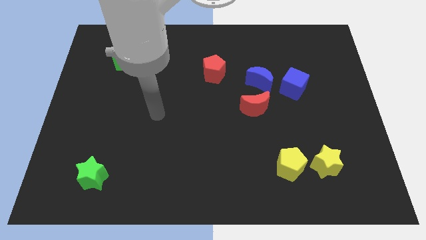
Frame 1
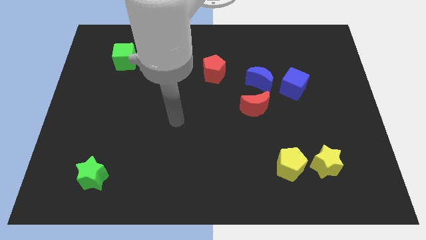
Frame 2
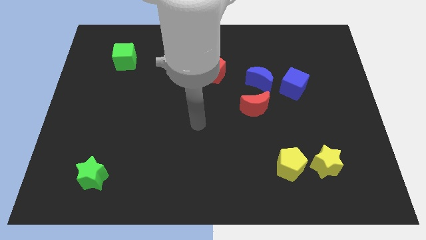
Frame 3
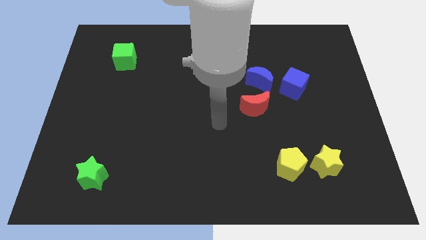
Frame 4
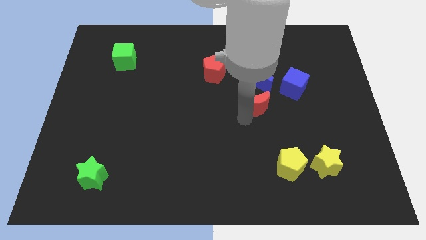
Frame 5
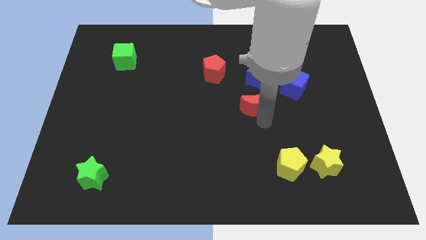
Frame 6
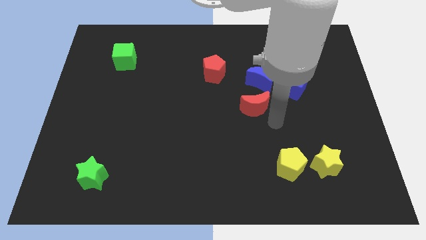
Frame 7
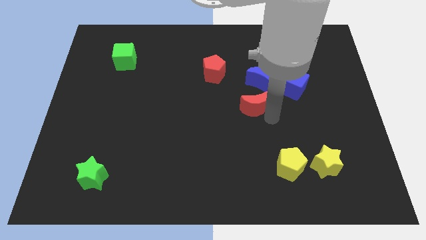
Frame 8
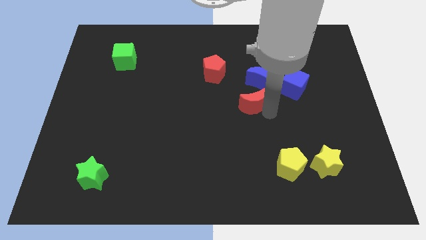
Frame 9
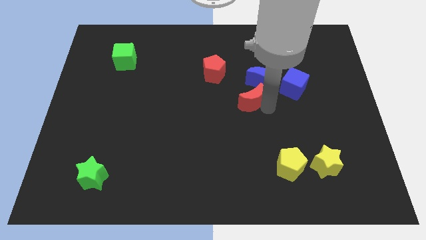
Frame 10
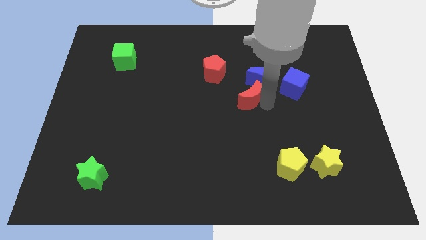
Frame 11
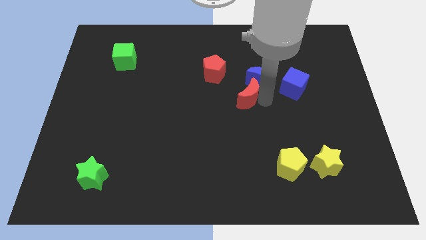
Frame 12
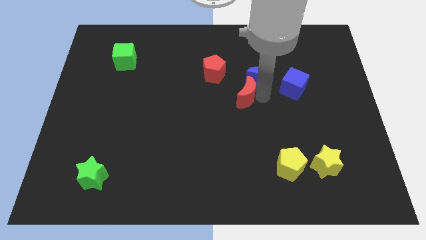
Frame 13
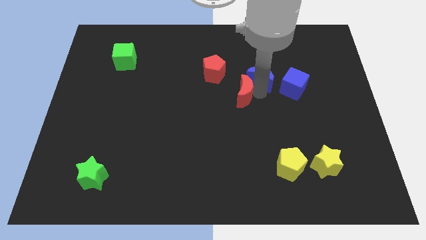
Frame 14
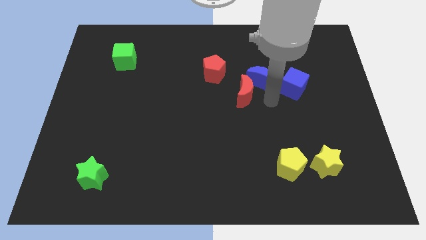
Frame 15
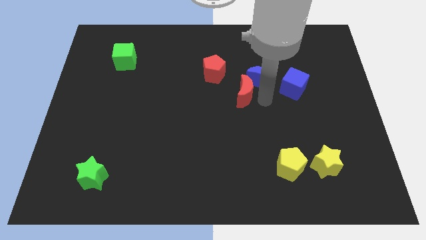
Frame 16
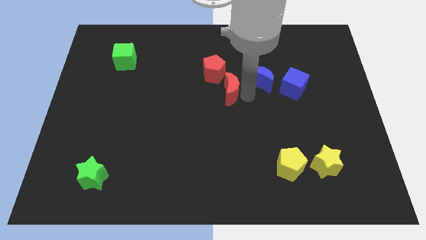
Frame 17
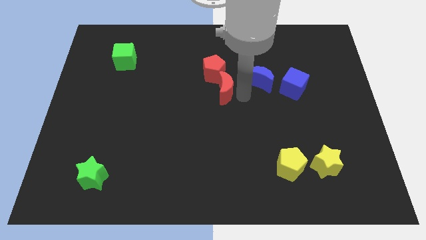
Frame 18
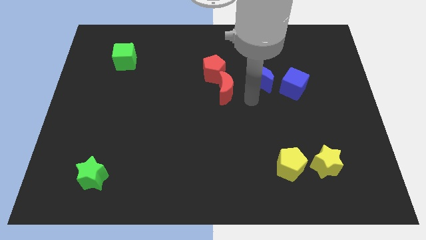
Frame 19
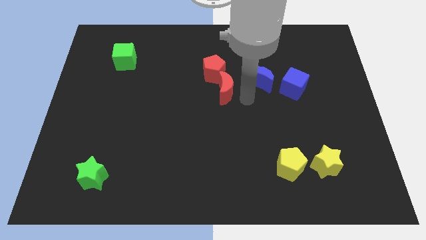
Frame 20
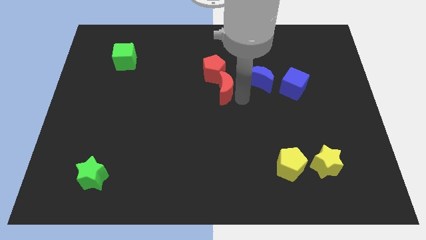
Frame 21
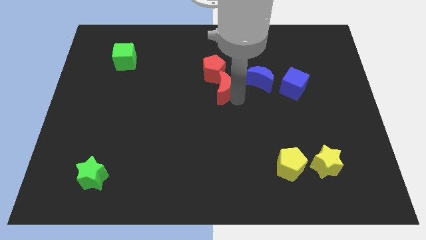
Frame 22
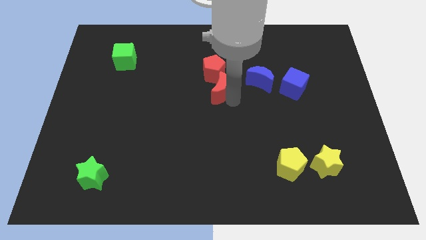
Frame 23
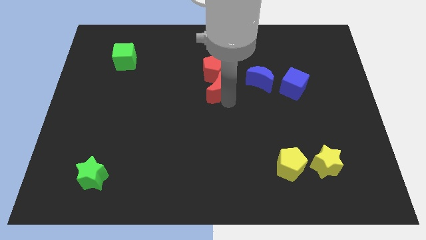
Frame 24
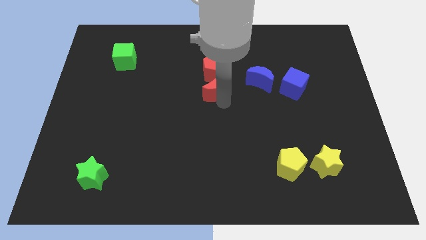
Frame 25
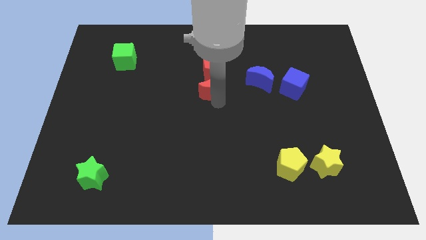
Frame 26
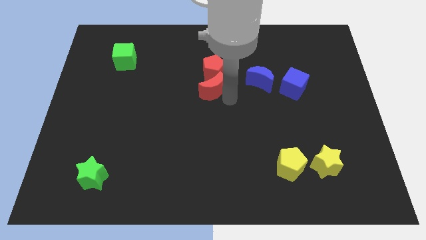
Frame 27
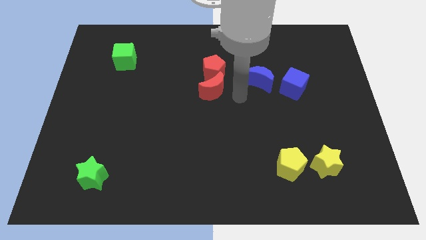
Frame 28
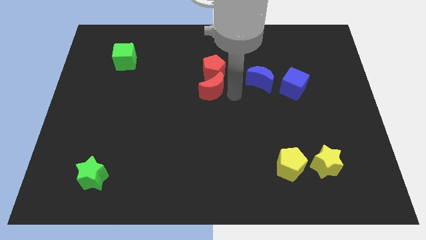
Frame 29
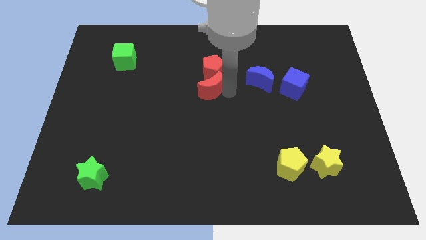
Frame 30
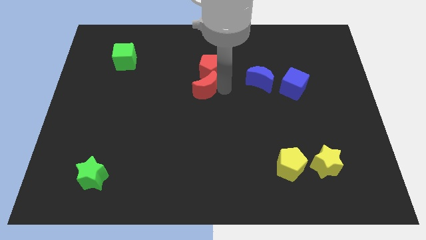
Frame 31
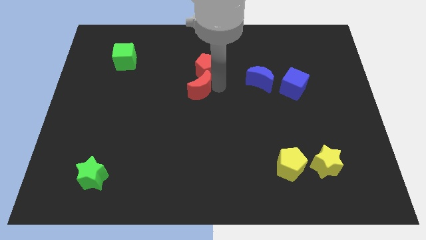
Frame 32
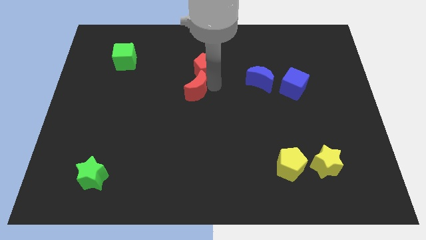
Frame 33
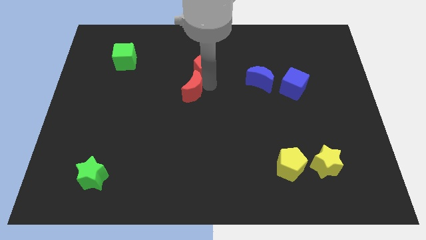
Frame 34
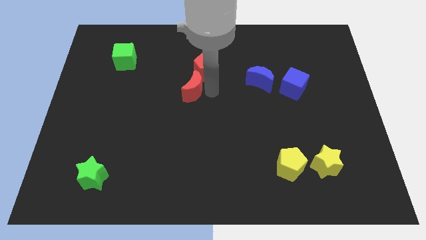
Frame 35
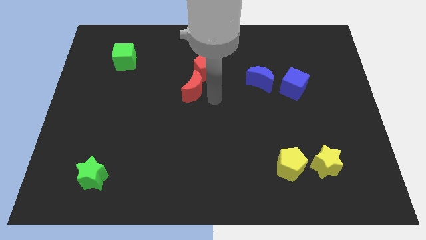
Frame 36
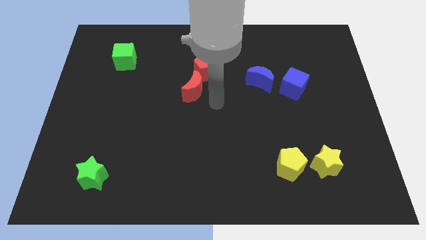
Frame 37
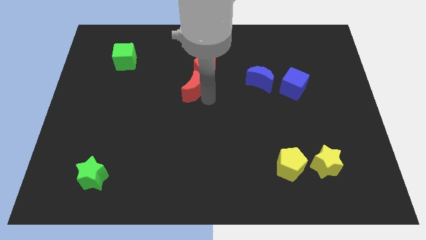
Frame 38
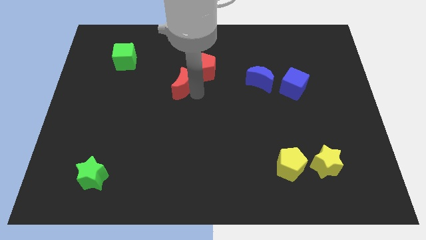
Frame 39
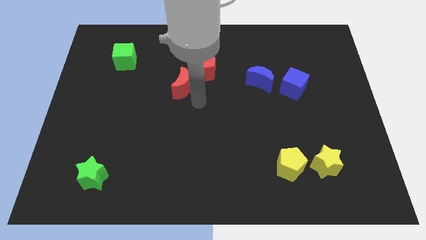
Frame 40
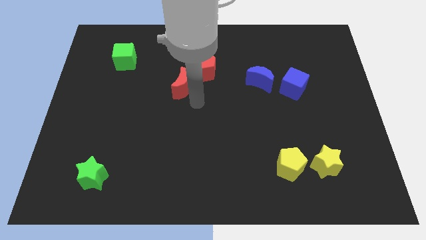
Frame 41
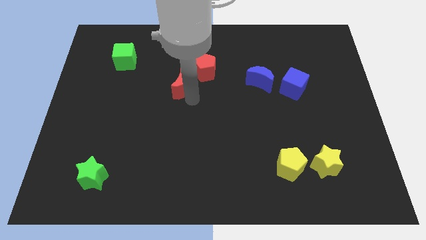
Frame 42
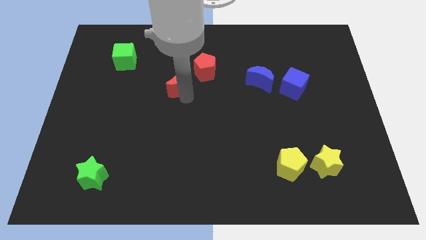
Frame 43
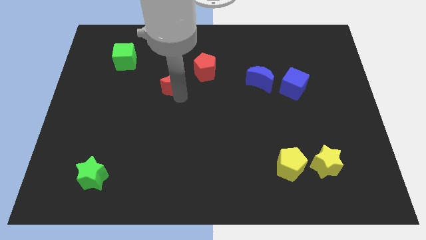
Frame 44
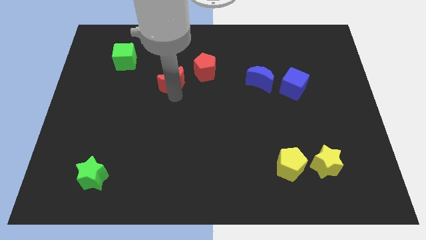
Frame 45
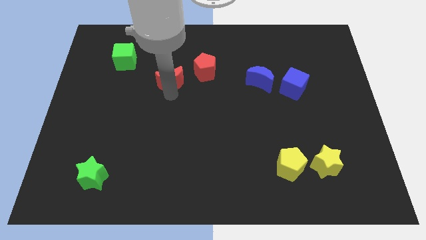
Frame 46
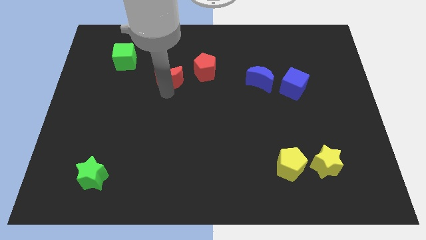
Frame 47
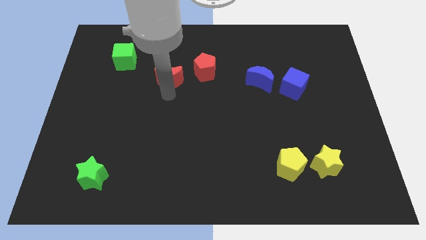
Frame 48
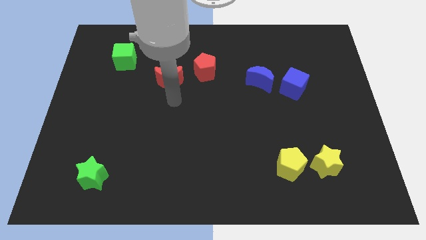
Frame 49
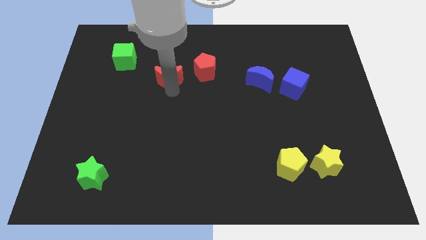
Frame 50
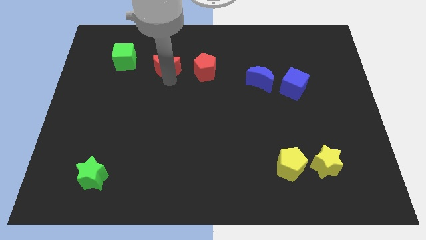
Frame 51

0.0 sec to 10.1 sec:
slide the red moon to the right side of the green cube

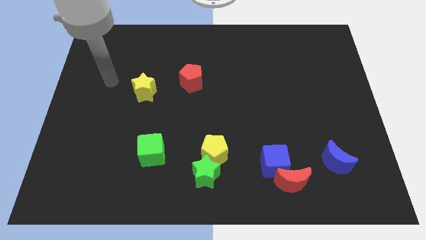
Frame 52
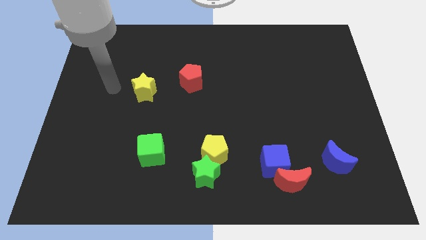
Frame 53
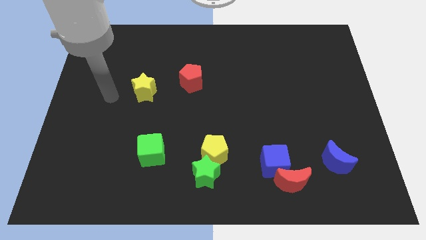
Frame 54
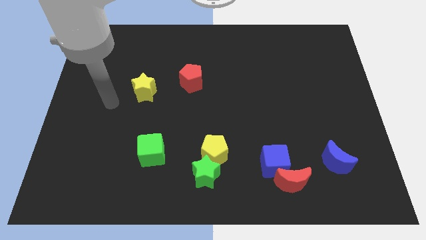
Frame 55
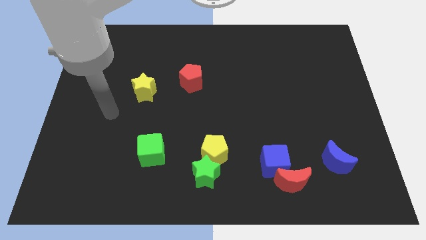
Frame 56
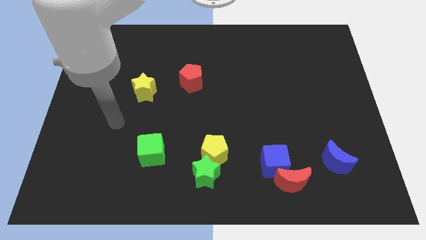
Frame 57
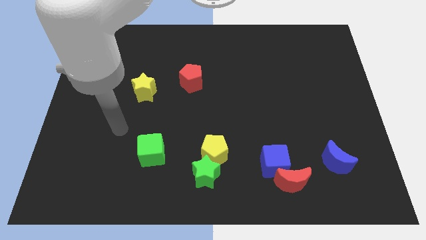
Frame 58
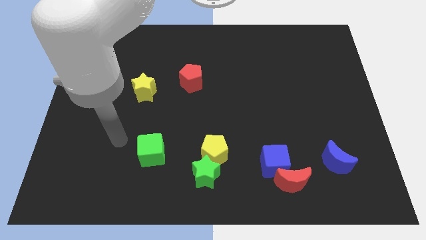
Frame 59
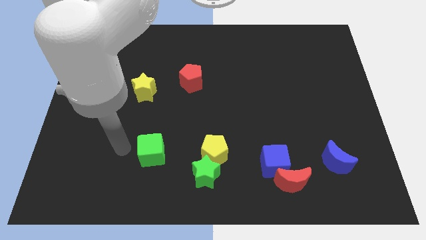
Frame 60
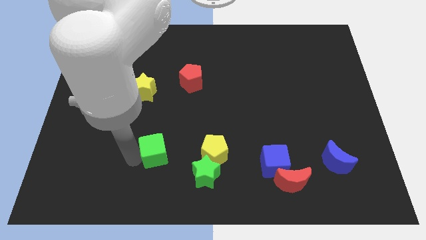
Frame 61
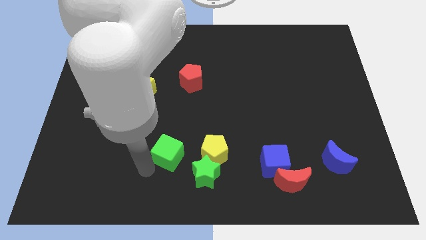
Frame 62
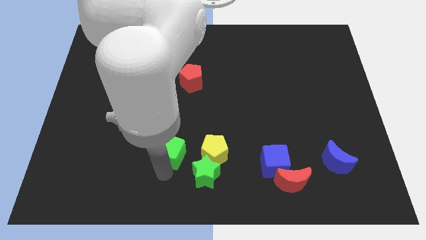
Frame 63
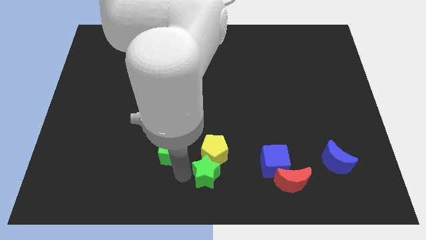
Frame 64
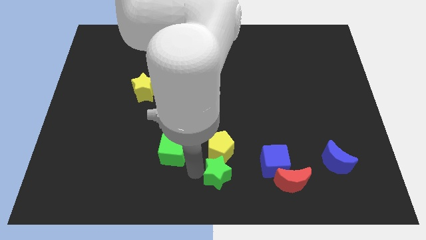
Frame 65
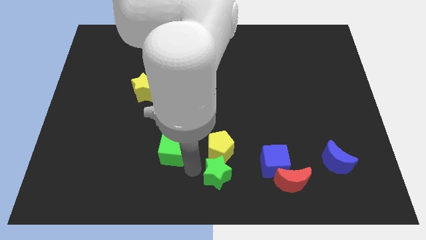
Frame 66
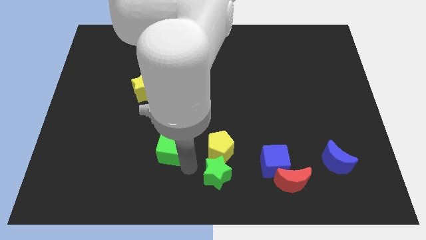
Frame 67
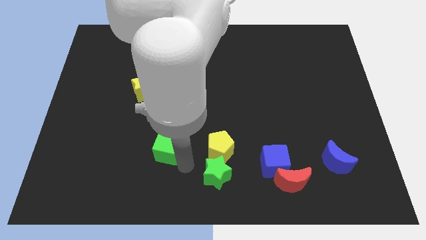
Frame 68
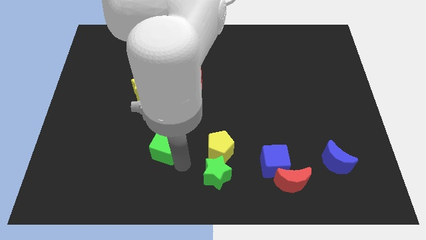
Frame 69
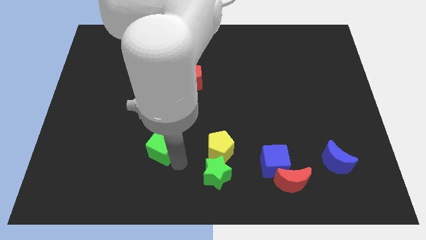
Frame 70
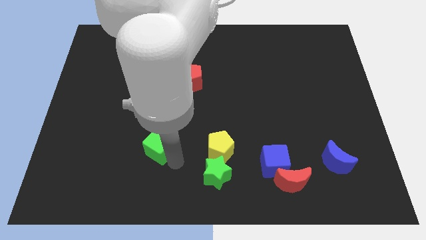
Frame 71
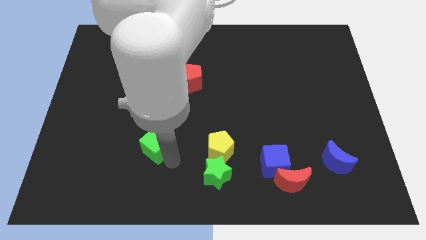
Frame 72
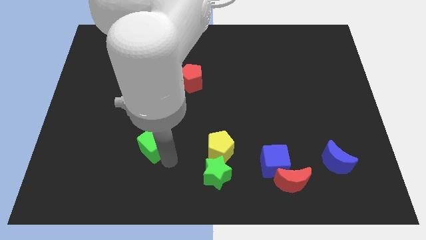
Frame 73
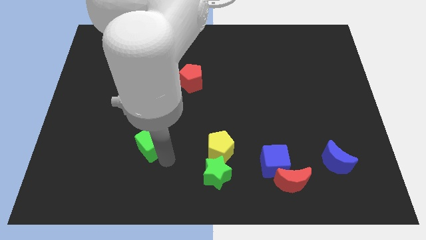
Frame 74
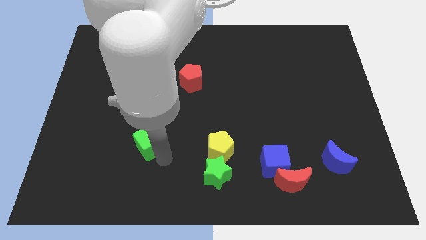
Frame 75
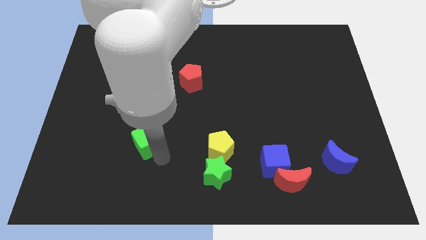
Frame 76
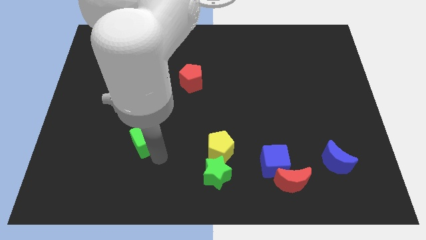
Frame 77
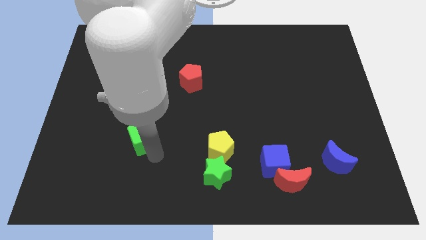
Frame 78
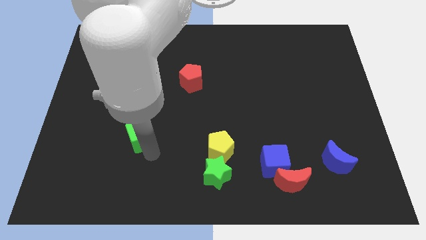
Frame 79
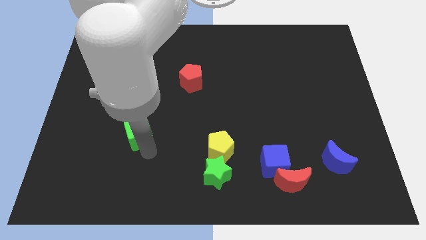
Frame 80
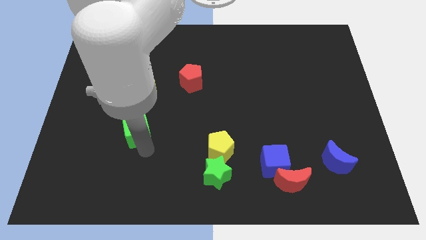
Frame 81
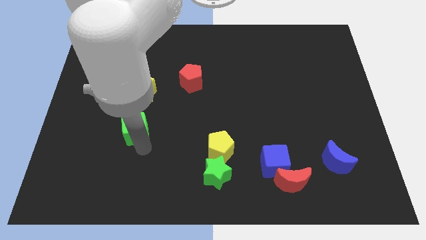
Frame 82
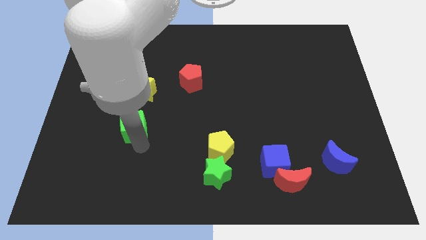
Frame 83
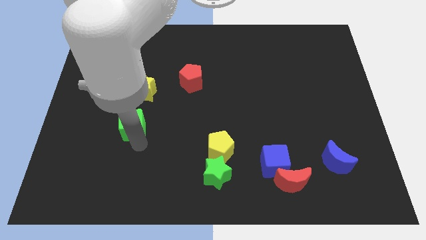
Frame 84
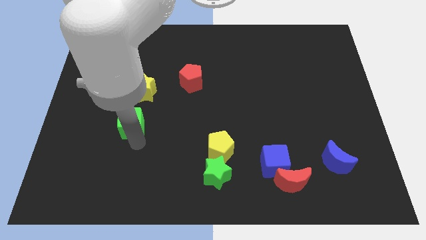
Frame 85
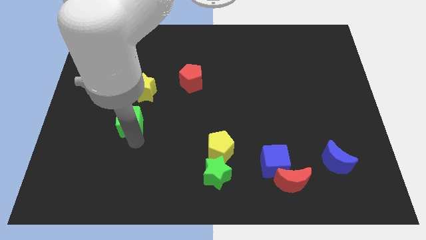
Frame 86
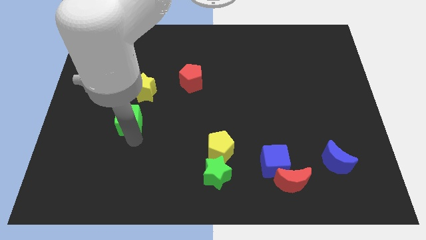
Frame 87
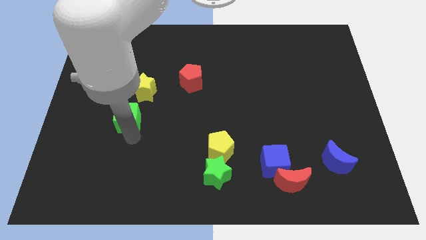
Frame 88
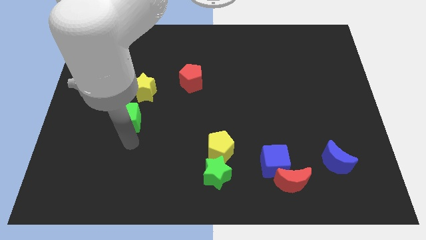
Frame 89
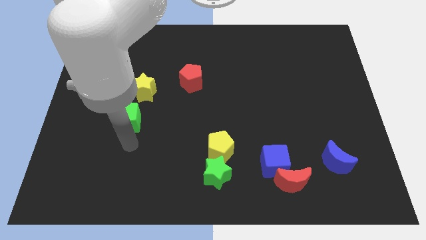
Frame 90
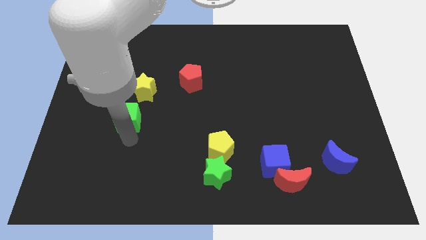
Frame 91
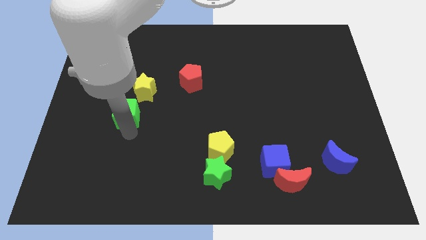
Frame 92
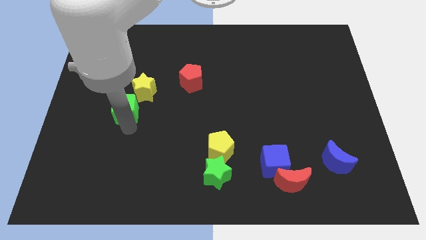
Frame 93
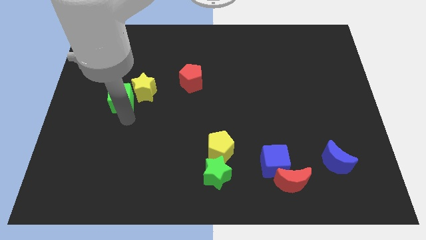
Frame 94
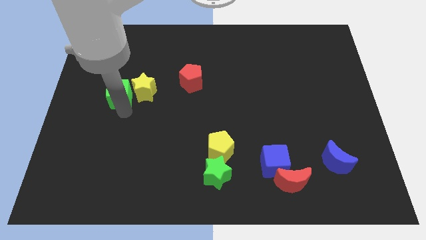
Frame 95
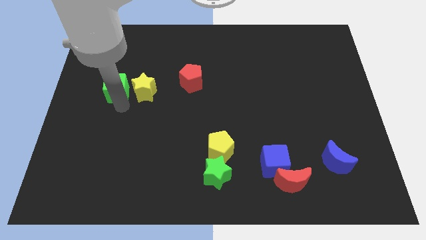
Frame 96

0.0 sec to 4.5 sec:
push the green cube to the top left side of the yellow star
